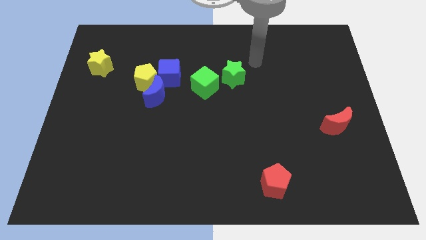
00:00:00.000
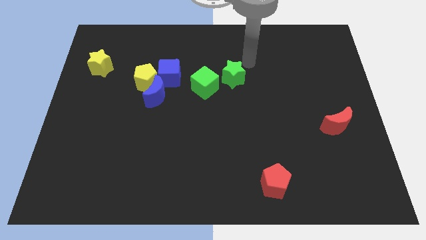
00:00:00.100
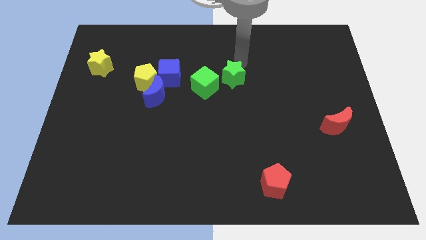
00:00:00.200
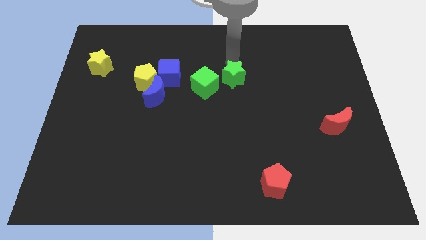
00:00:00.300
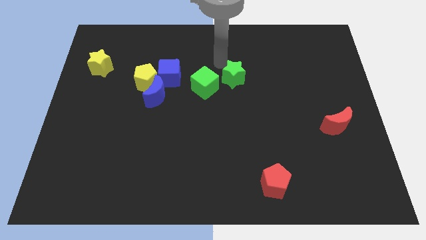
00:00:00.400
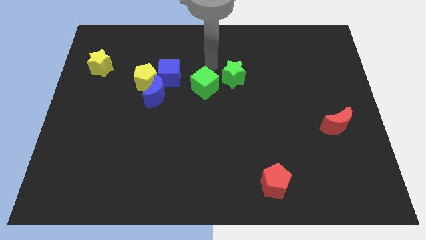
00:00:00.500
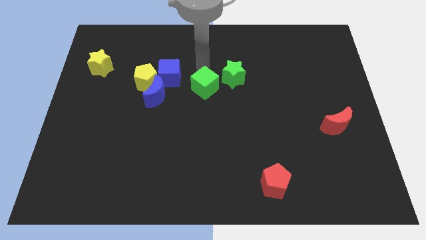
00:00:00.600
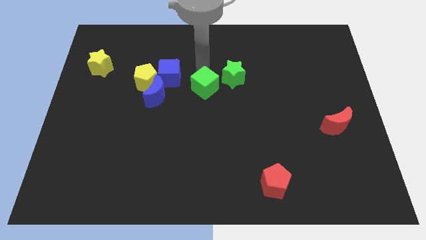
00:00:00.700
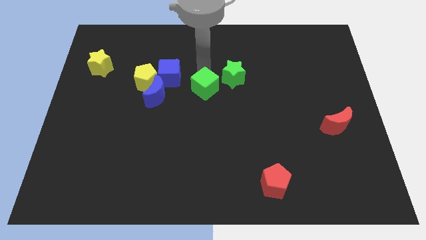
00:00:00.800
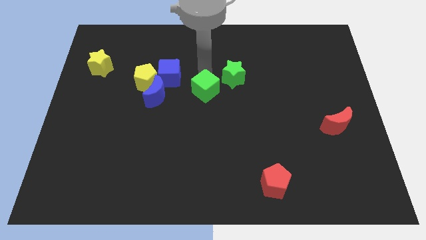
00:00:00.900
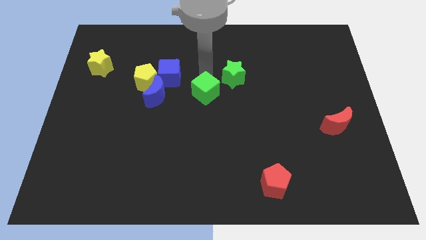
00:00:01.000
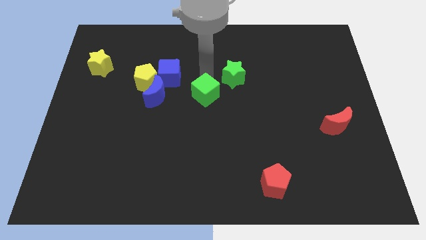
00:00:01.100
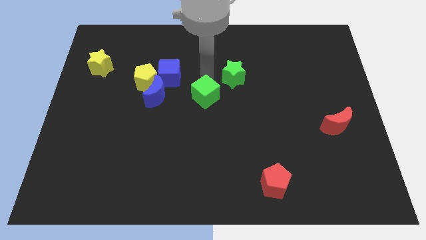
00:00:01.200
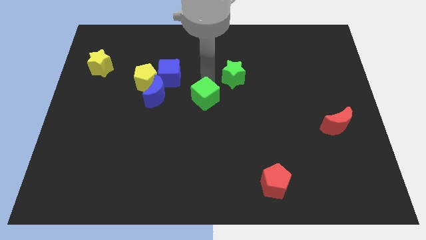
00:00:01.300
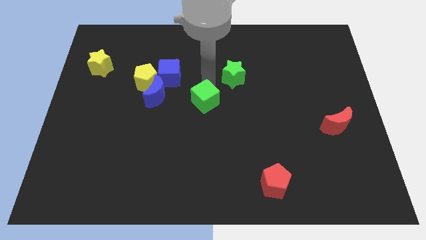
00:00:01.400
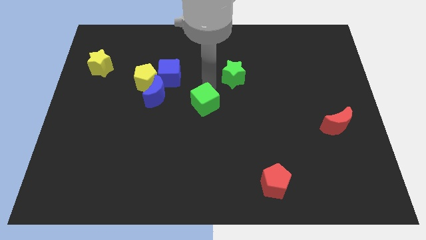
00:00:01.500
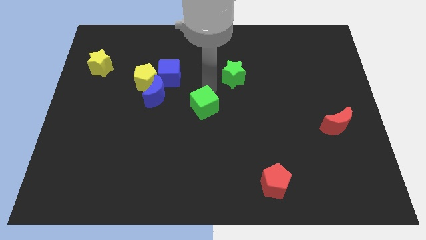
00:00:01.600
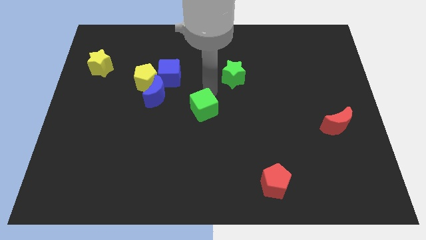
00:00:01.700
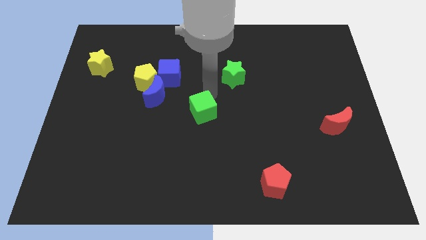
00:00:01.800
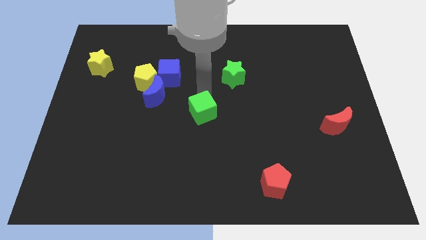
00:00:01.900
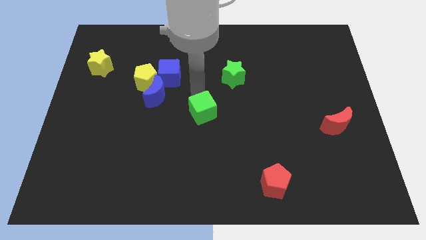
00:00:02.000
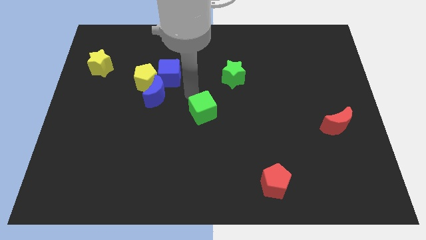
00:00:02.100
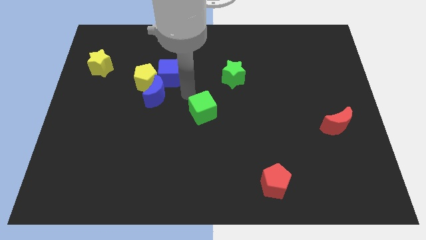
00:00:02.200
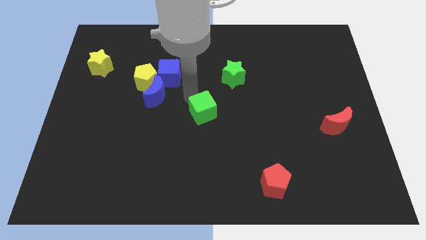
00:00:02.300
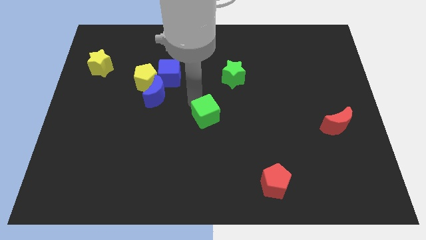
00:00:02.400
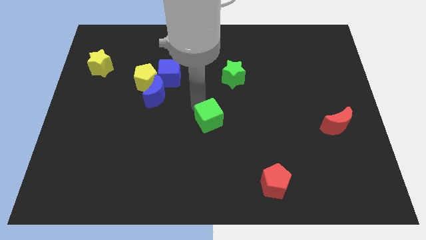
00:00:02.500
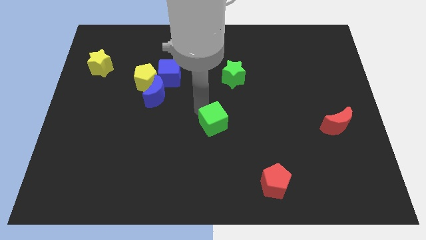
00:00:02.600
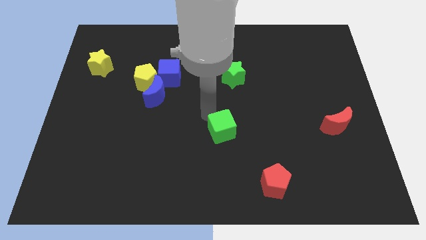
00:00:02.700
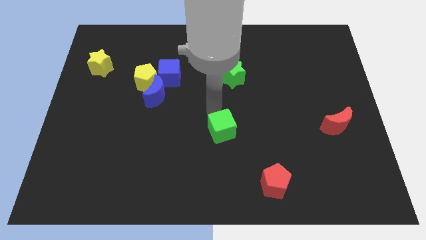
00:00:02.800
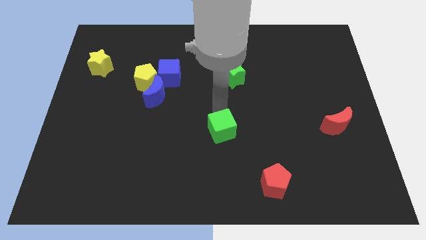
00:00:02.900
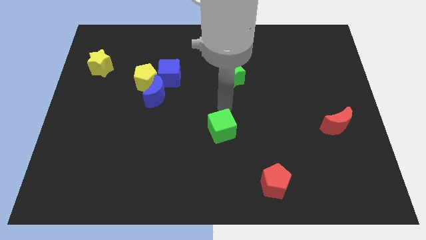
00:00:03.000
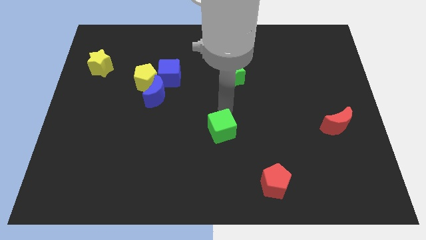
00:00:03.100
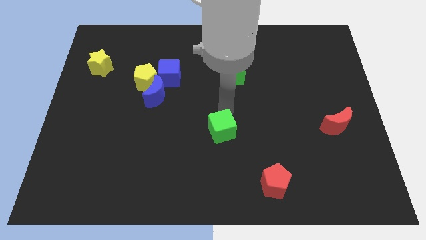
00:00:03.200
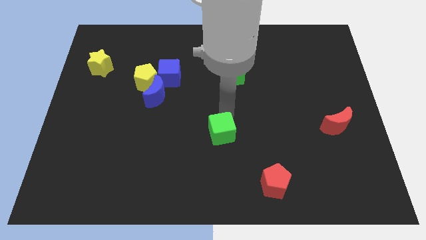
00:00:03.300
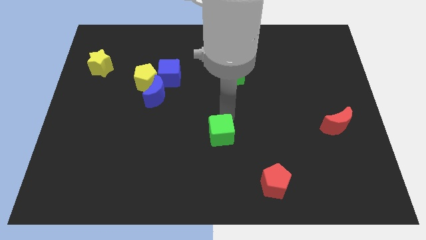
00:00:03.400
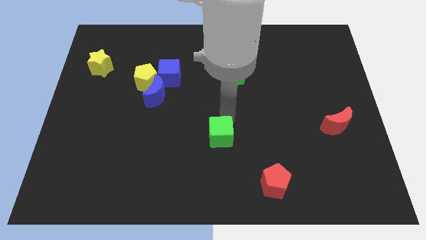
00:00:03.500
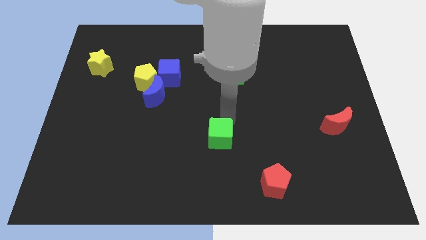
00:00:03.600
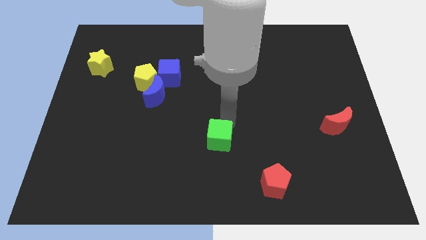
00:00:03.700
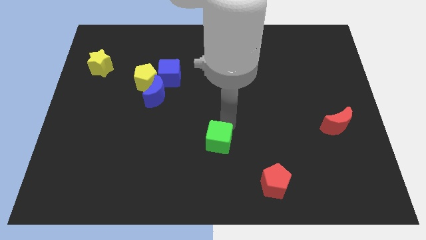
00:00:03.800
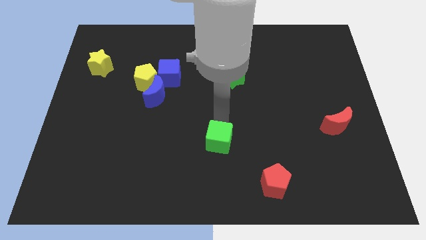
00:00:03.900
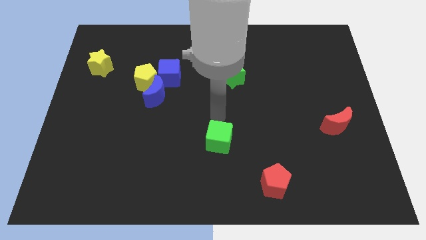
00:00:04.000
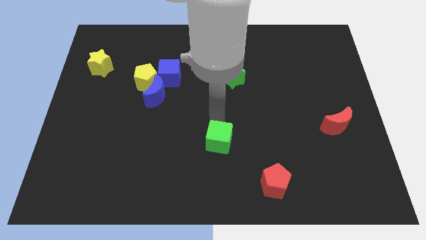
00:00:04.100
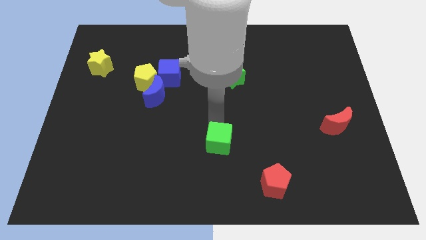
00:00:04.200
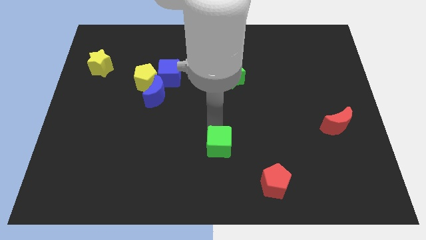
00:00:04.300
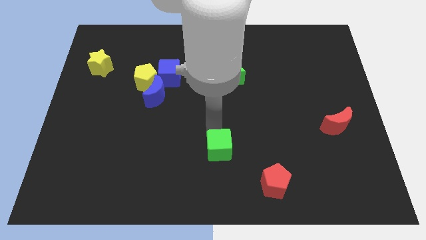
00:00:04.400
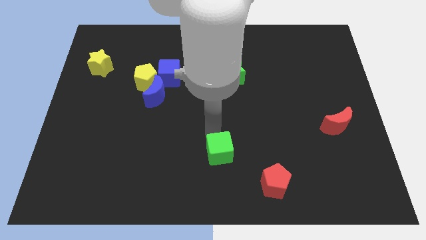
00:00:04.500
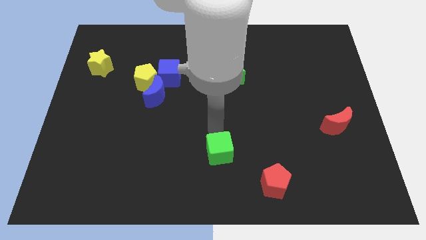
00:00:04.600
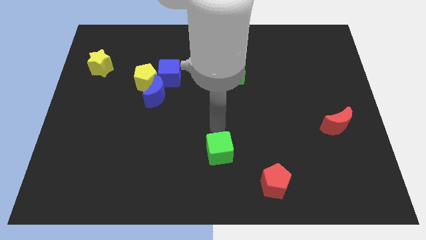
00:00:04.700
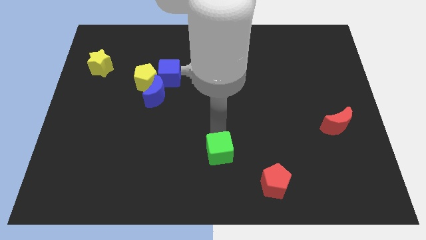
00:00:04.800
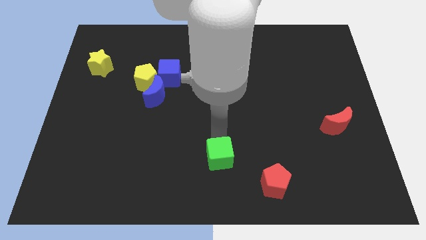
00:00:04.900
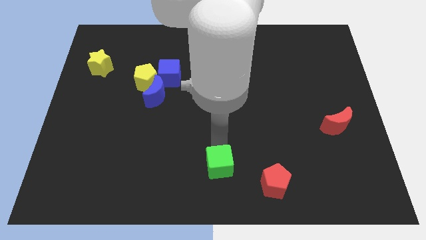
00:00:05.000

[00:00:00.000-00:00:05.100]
put the green cube to the left side of the red pentagon

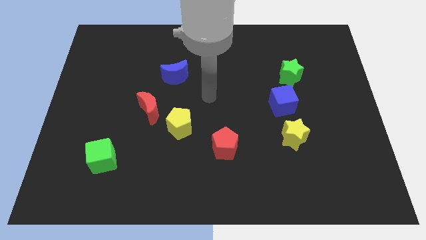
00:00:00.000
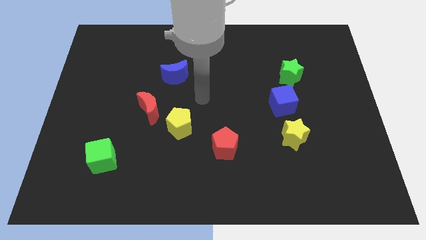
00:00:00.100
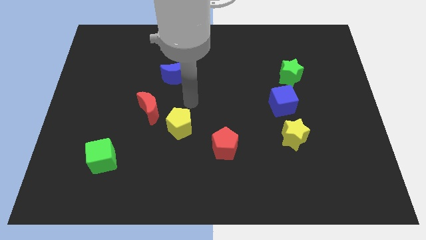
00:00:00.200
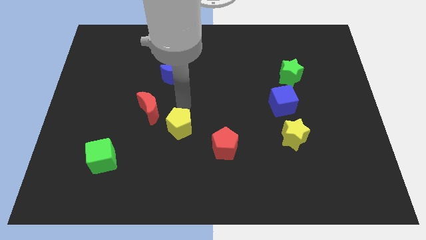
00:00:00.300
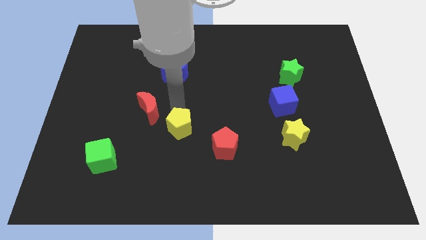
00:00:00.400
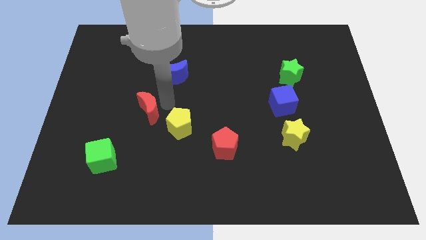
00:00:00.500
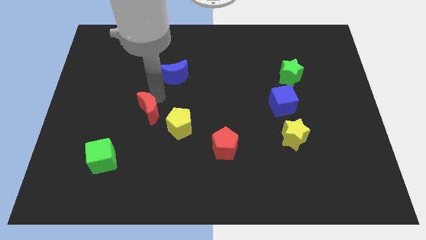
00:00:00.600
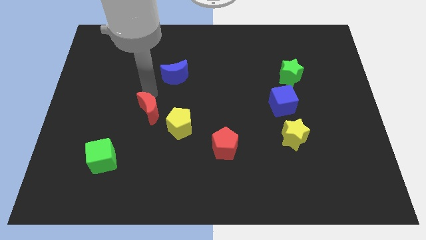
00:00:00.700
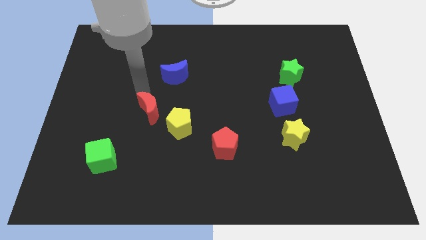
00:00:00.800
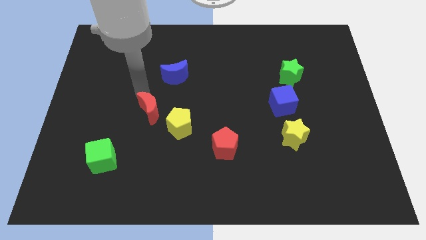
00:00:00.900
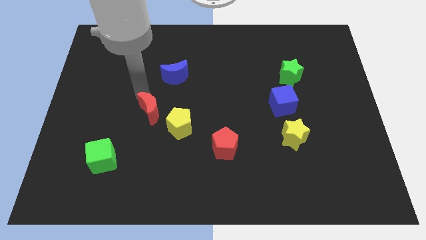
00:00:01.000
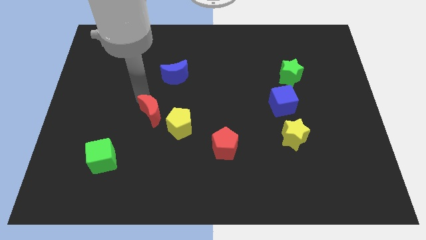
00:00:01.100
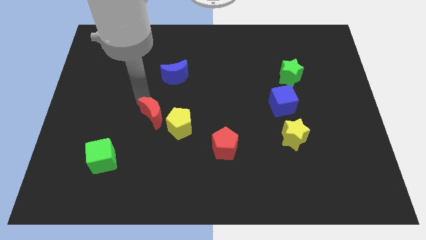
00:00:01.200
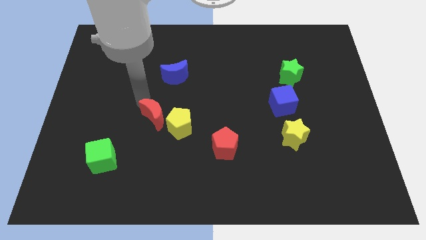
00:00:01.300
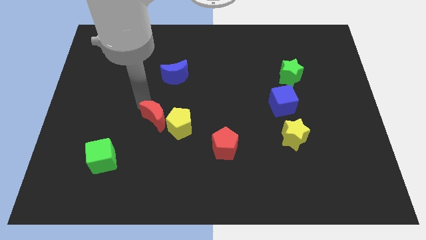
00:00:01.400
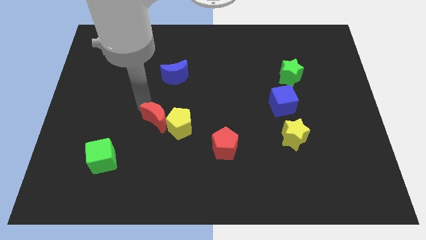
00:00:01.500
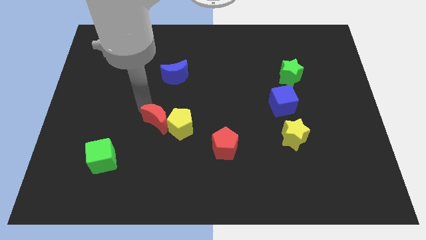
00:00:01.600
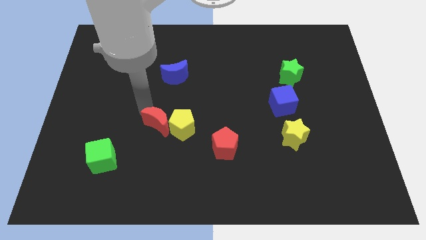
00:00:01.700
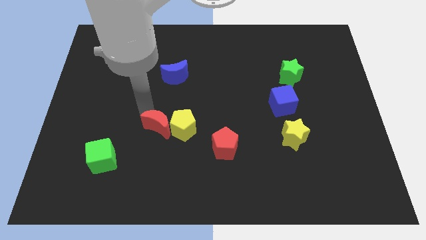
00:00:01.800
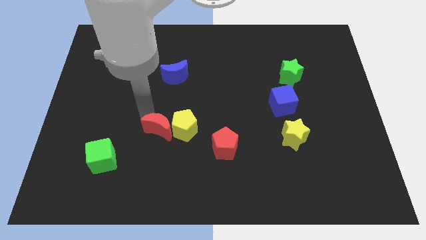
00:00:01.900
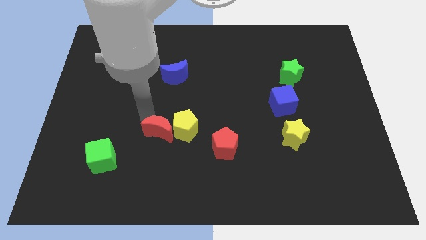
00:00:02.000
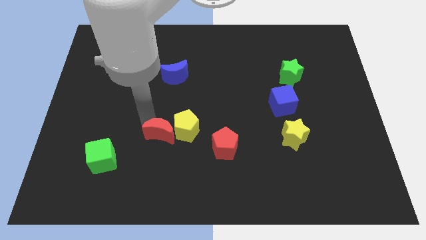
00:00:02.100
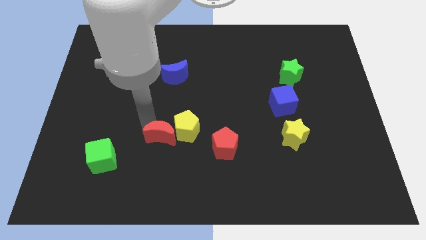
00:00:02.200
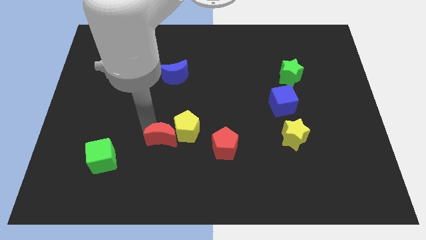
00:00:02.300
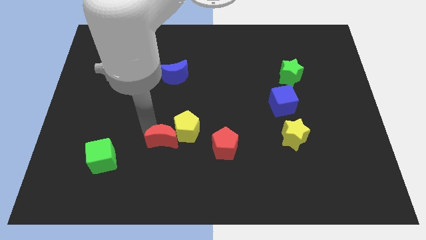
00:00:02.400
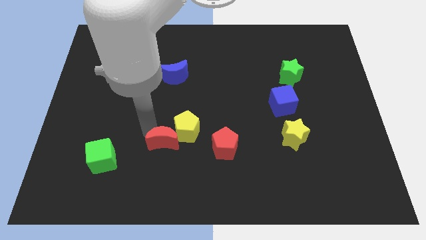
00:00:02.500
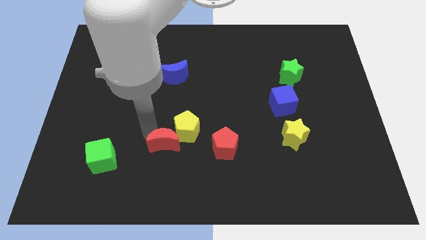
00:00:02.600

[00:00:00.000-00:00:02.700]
put the red moon to the bottom of the yellow pentagon
